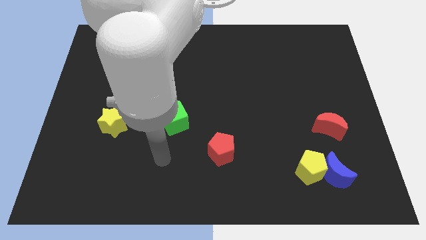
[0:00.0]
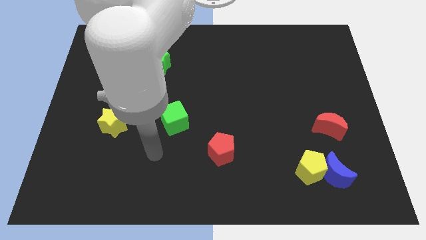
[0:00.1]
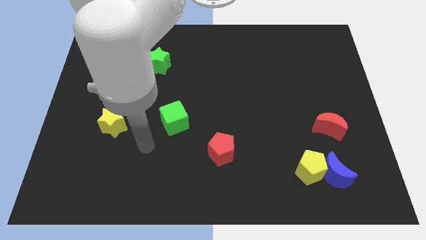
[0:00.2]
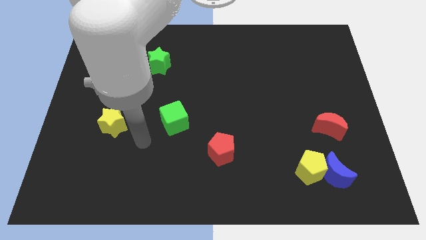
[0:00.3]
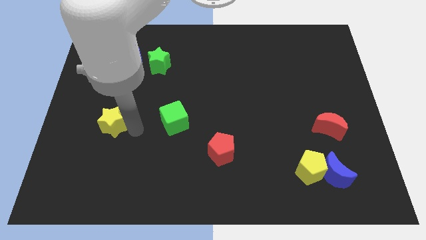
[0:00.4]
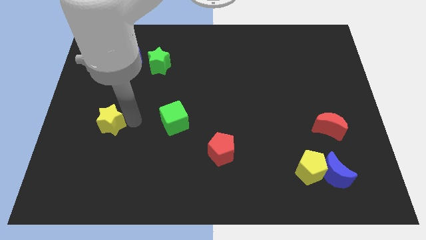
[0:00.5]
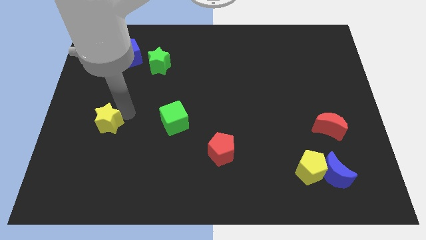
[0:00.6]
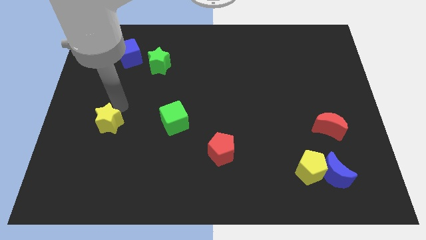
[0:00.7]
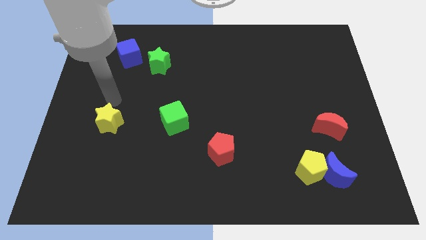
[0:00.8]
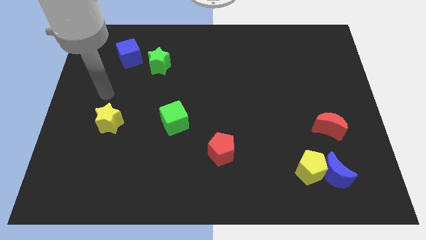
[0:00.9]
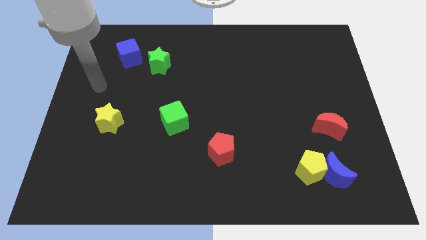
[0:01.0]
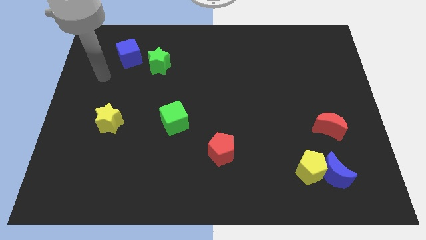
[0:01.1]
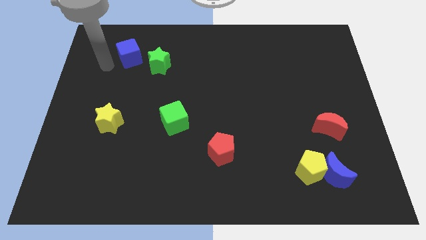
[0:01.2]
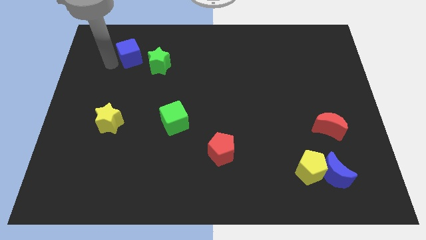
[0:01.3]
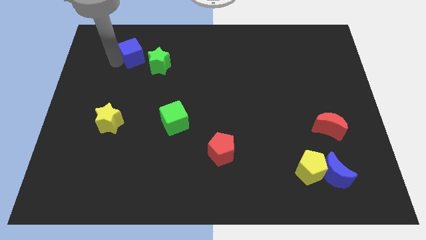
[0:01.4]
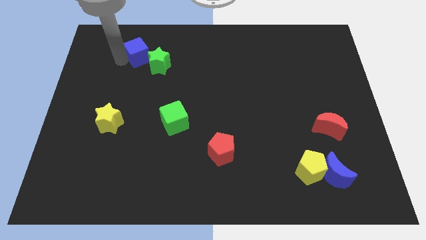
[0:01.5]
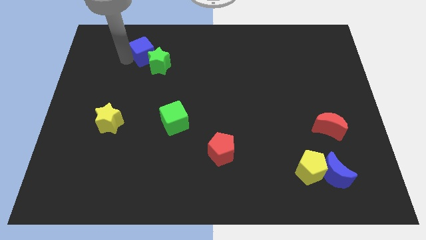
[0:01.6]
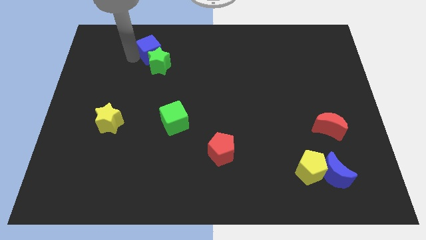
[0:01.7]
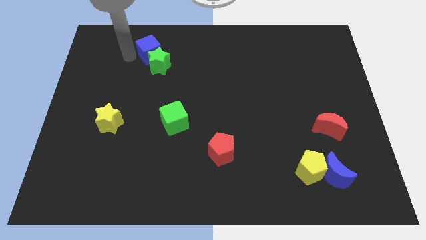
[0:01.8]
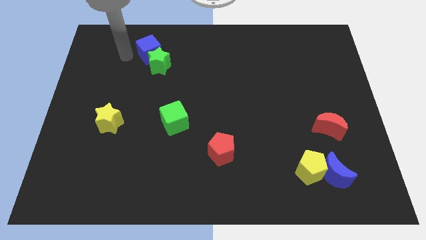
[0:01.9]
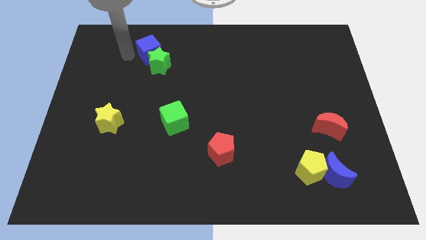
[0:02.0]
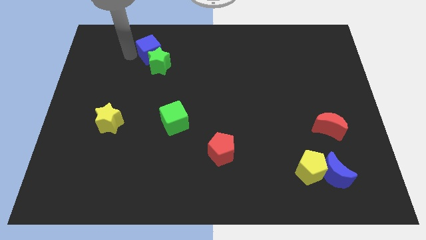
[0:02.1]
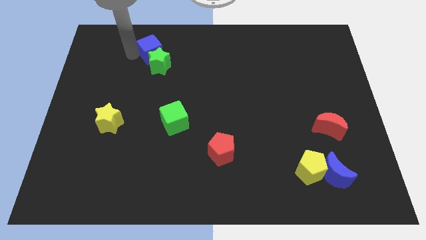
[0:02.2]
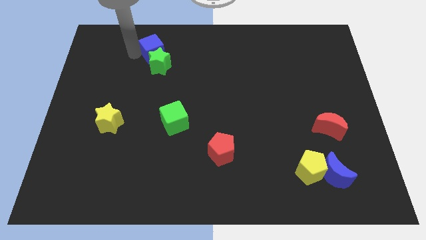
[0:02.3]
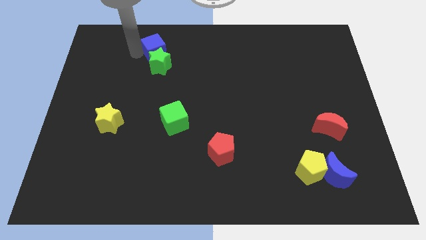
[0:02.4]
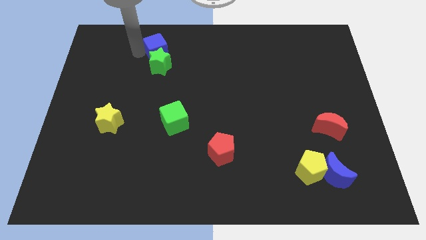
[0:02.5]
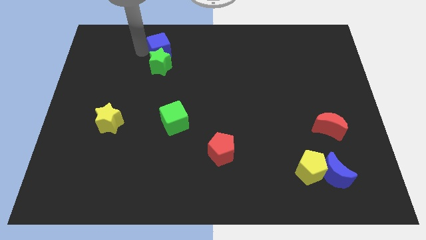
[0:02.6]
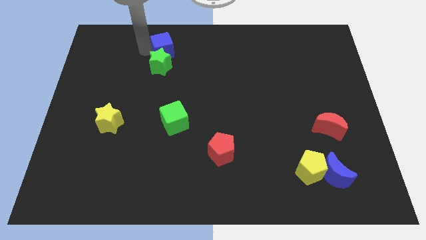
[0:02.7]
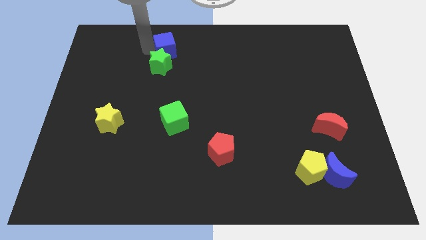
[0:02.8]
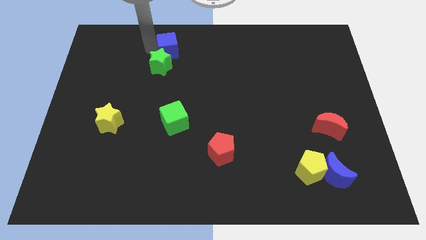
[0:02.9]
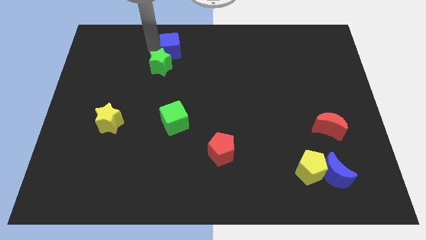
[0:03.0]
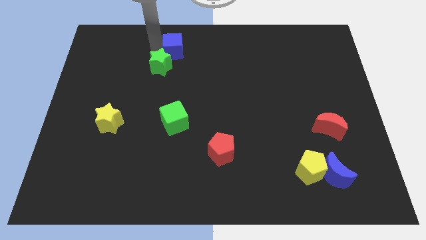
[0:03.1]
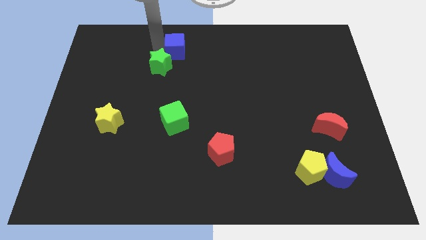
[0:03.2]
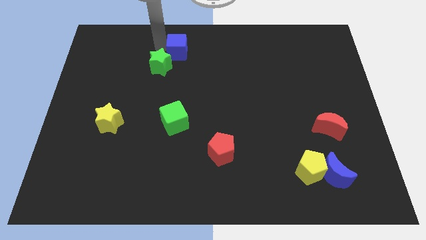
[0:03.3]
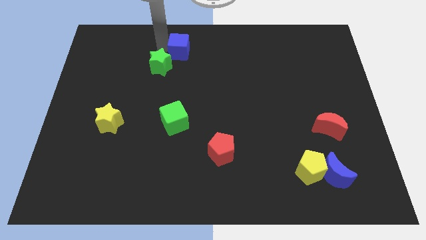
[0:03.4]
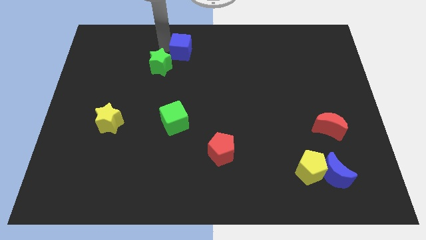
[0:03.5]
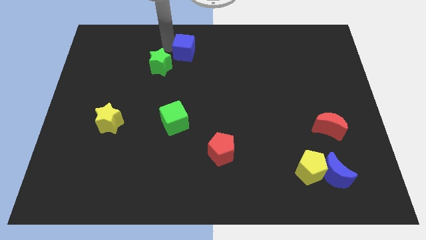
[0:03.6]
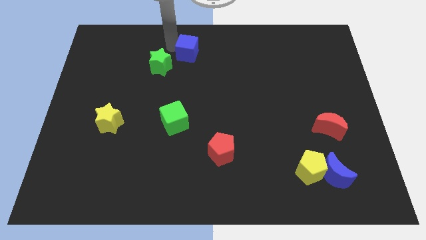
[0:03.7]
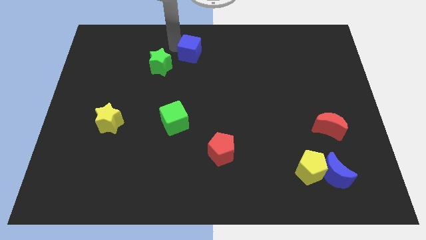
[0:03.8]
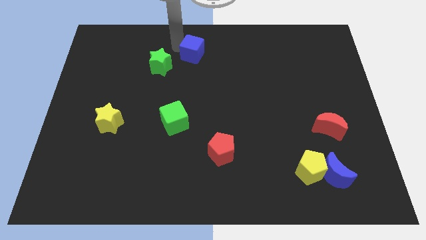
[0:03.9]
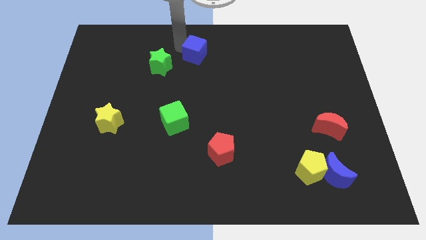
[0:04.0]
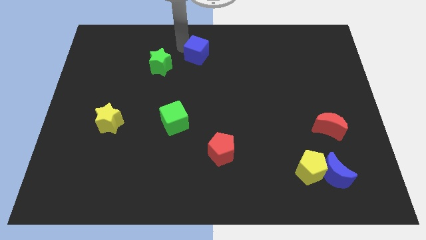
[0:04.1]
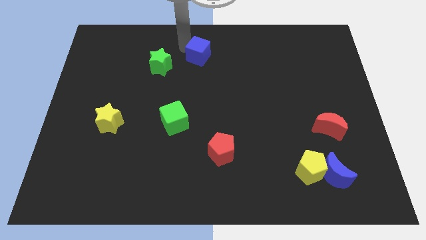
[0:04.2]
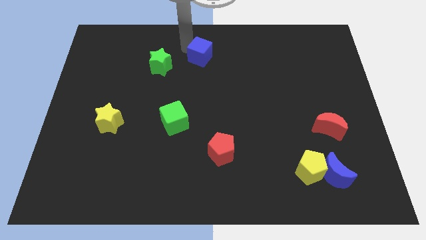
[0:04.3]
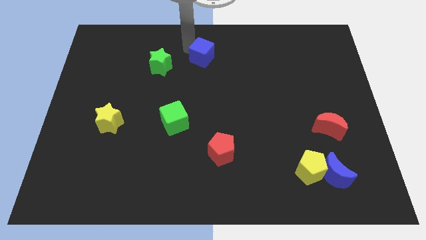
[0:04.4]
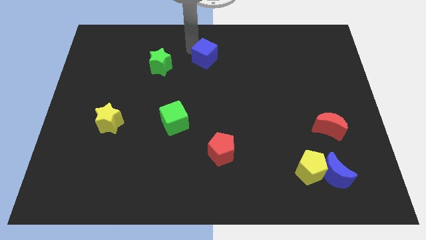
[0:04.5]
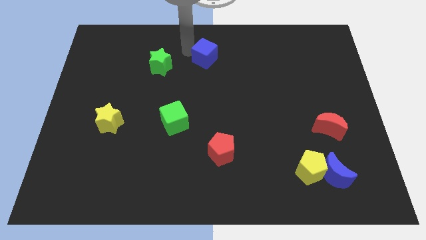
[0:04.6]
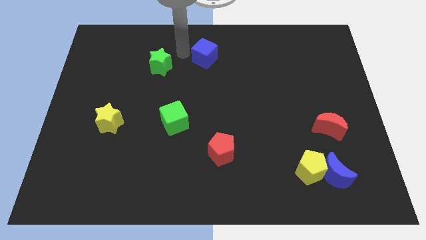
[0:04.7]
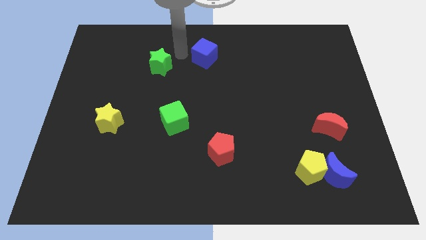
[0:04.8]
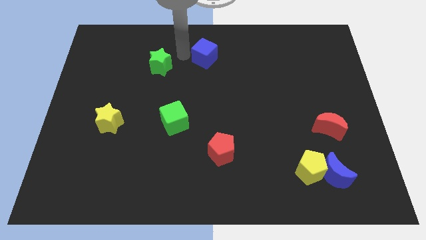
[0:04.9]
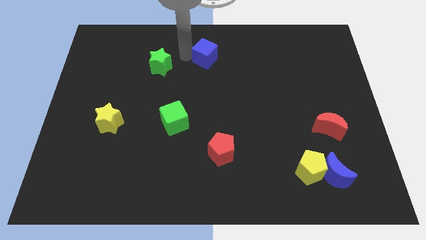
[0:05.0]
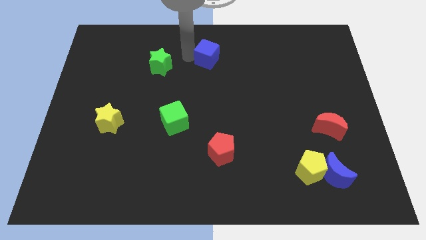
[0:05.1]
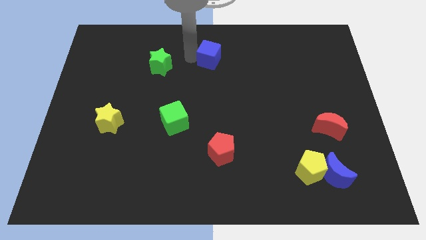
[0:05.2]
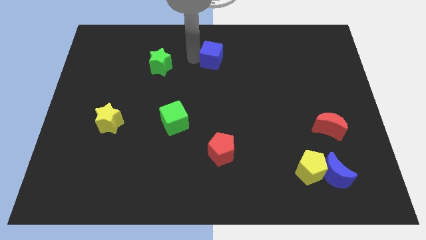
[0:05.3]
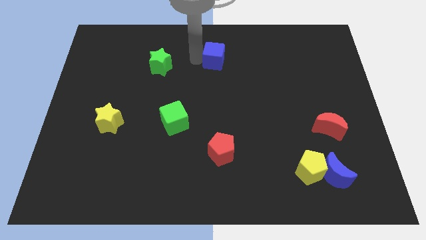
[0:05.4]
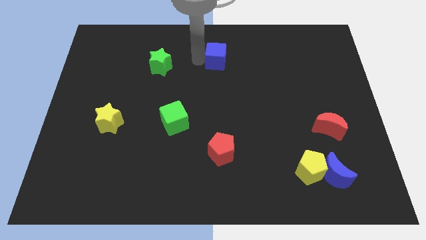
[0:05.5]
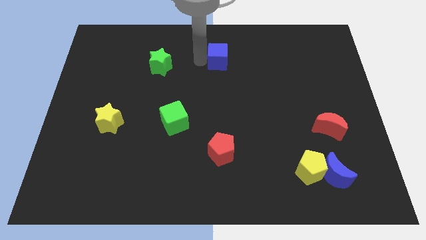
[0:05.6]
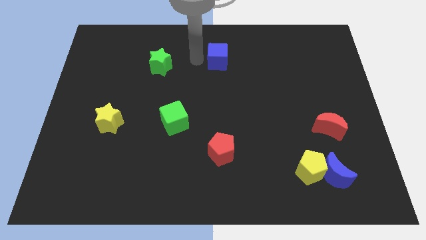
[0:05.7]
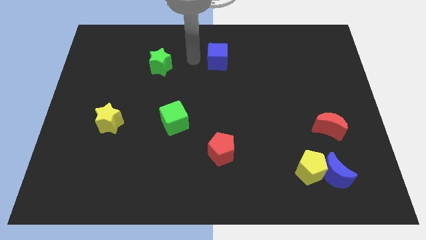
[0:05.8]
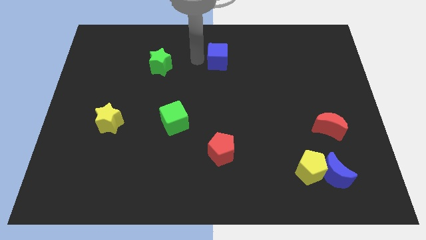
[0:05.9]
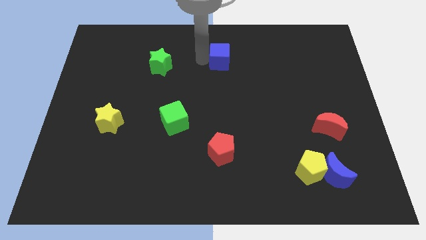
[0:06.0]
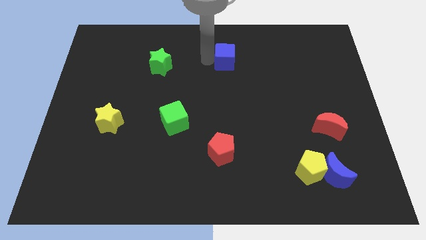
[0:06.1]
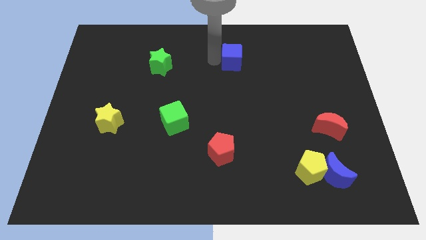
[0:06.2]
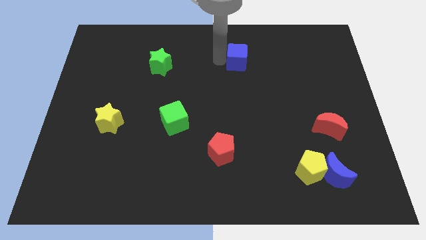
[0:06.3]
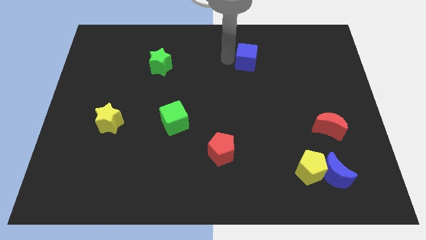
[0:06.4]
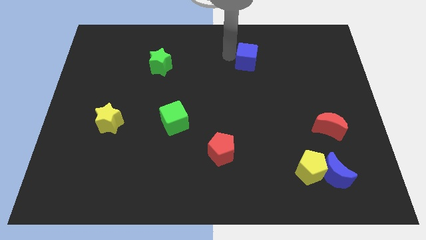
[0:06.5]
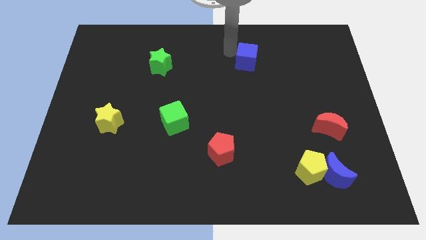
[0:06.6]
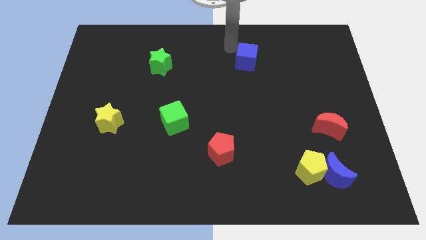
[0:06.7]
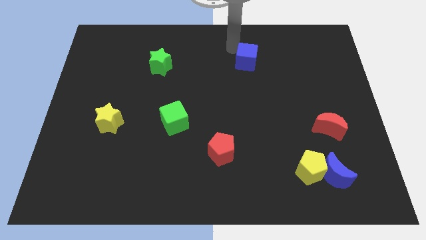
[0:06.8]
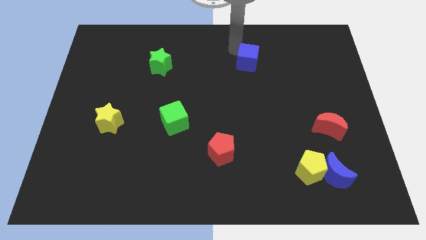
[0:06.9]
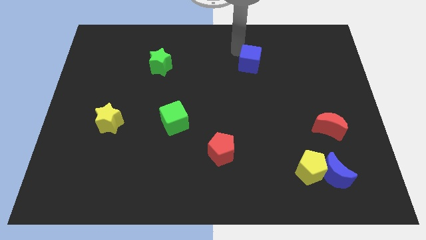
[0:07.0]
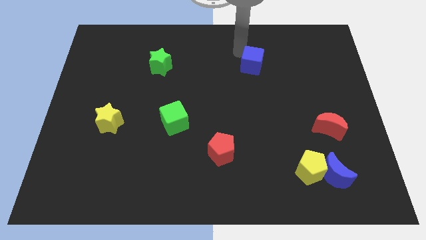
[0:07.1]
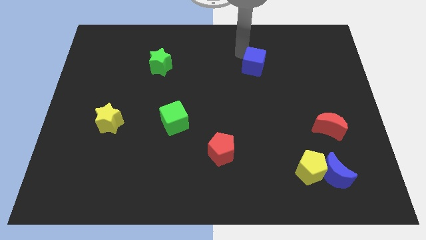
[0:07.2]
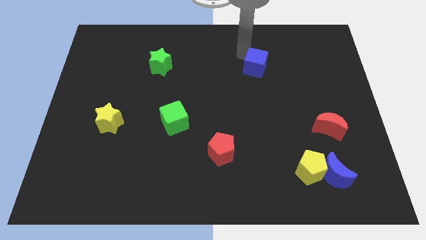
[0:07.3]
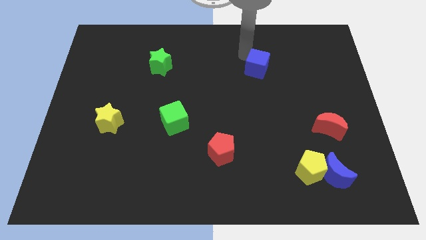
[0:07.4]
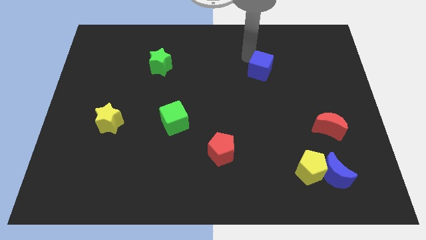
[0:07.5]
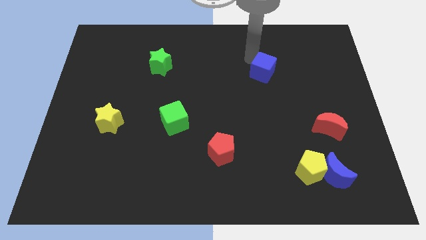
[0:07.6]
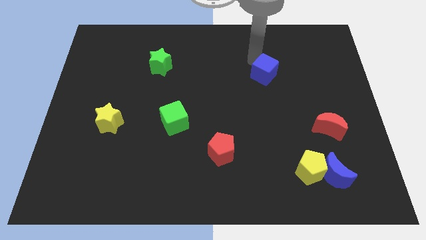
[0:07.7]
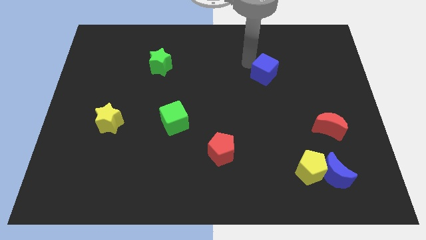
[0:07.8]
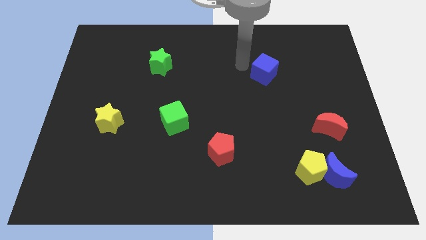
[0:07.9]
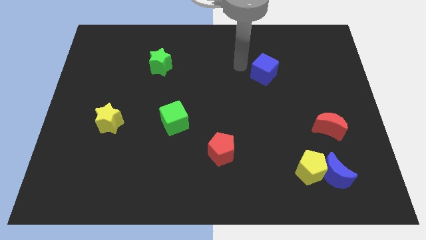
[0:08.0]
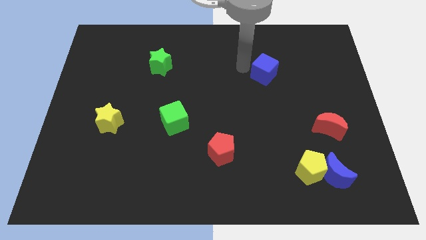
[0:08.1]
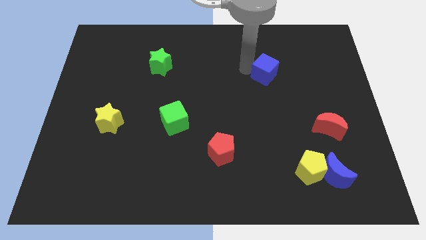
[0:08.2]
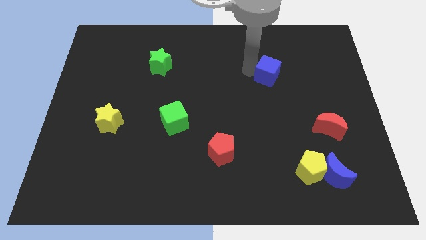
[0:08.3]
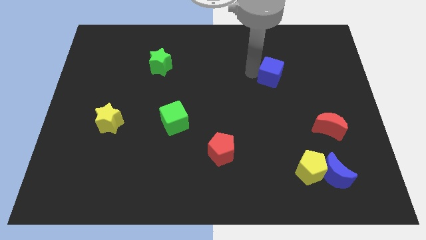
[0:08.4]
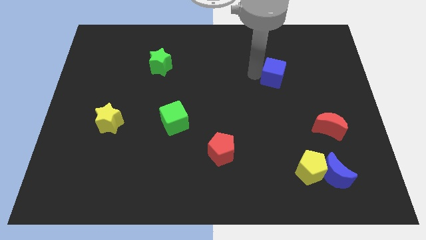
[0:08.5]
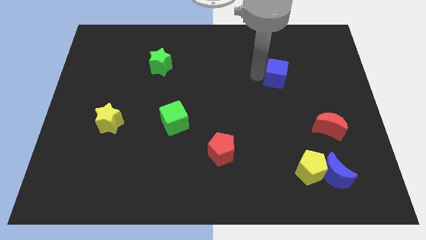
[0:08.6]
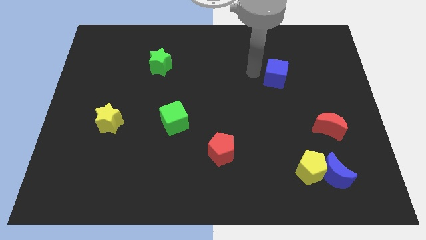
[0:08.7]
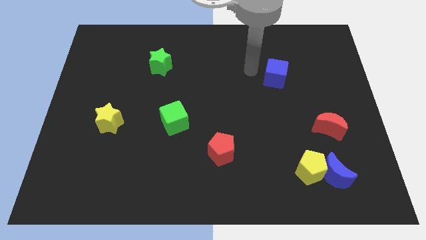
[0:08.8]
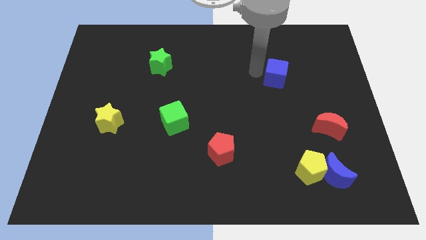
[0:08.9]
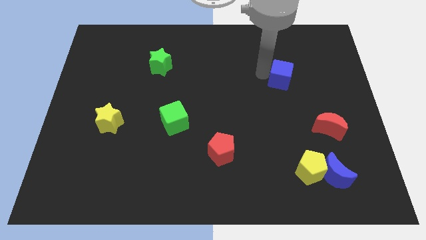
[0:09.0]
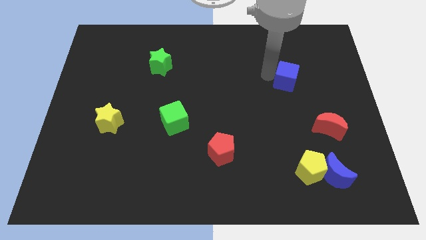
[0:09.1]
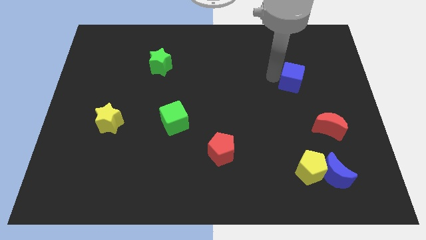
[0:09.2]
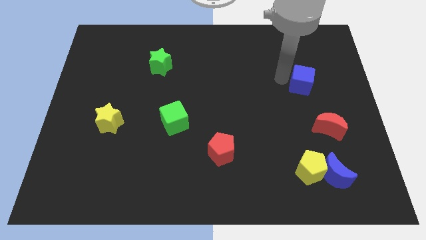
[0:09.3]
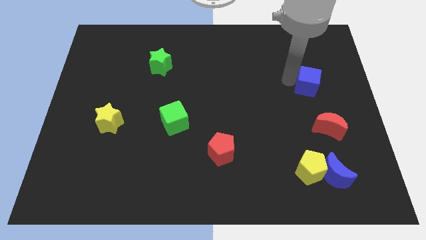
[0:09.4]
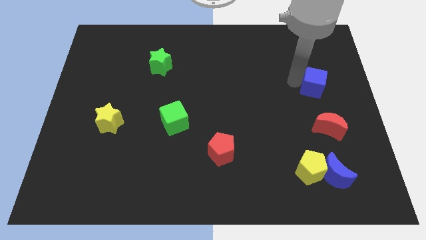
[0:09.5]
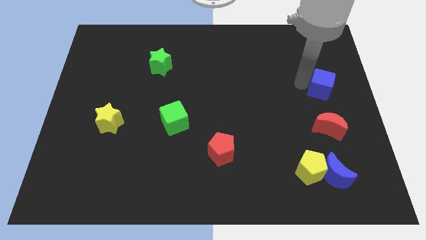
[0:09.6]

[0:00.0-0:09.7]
push the blue cube to the center right
